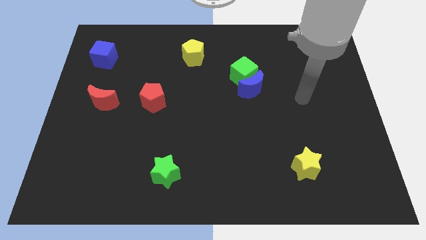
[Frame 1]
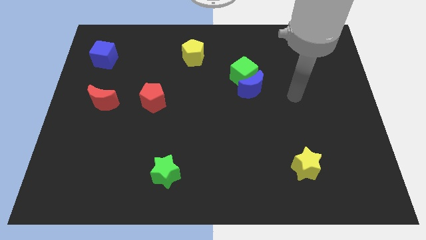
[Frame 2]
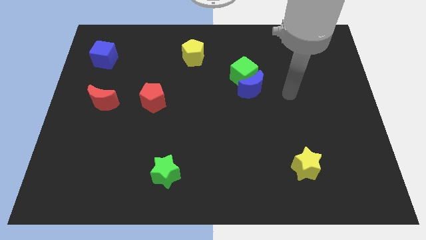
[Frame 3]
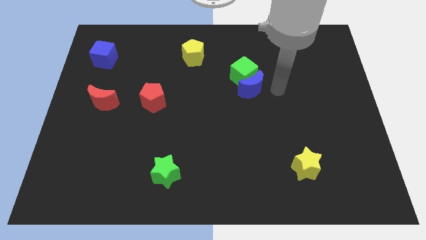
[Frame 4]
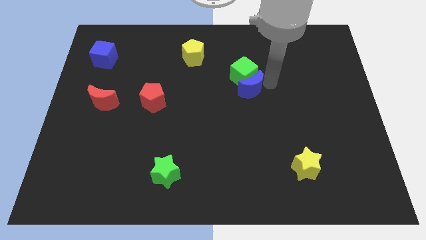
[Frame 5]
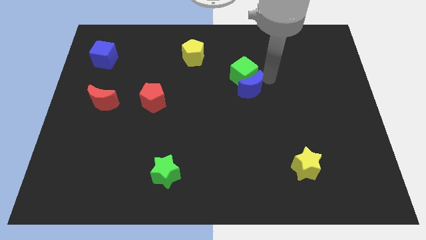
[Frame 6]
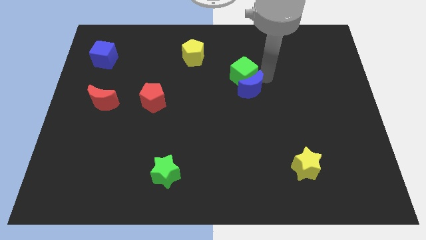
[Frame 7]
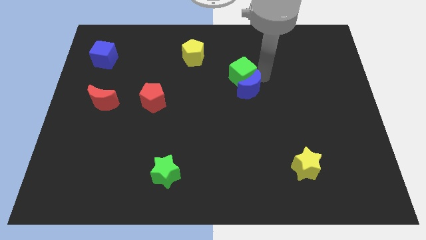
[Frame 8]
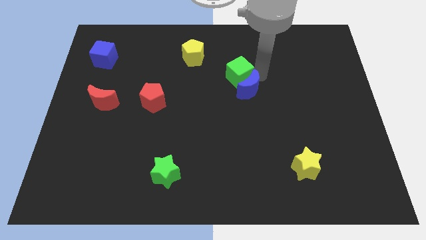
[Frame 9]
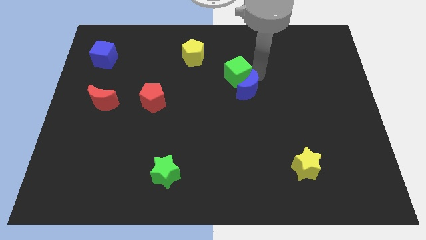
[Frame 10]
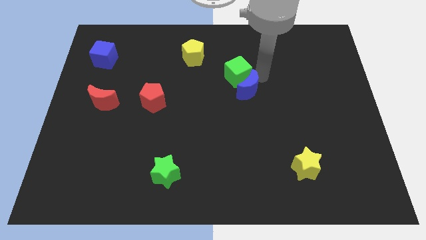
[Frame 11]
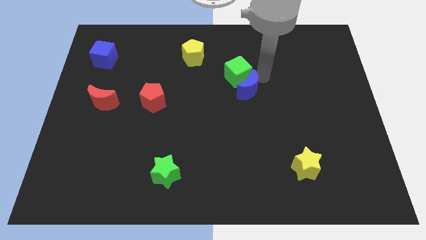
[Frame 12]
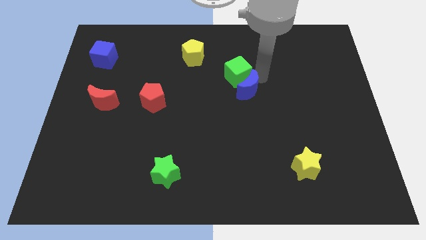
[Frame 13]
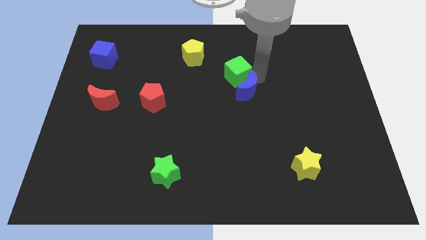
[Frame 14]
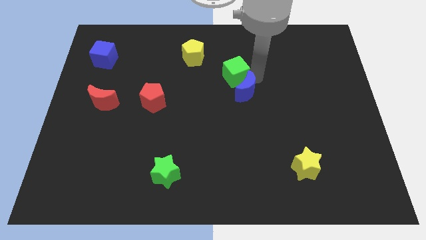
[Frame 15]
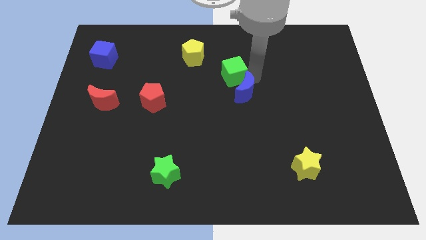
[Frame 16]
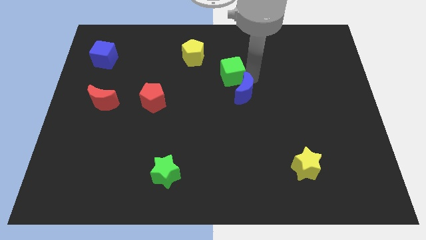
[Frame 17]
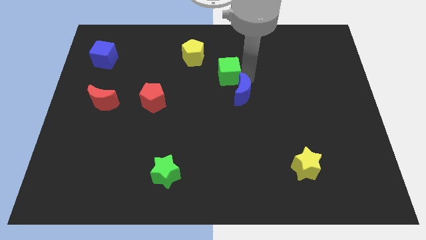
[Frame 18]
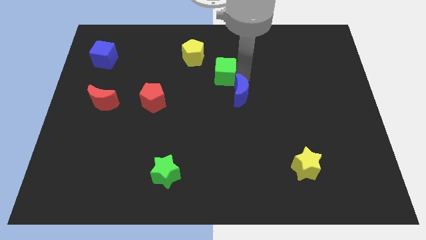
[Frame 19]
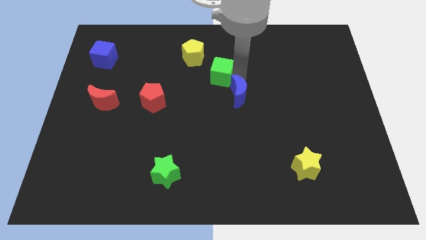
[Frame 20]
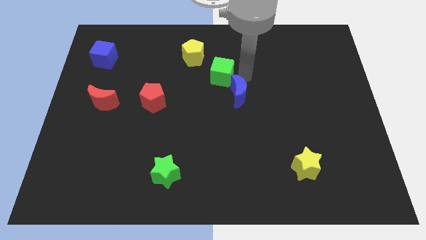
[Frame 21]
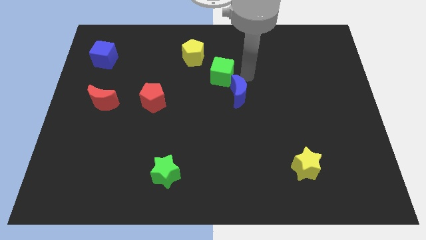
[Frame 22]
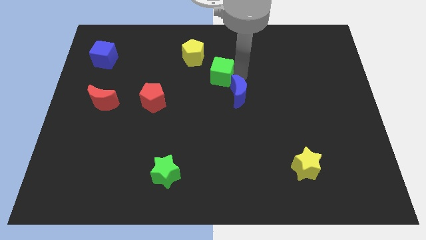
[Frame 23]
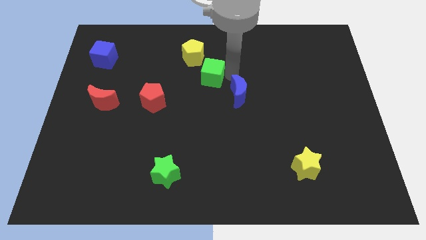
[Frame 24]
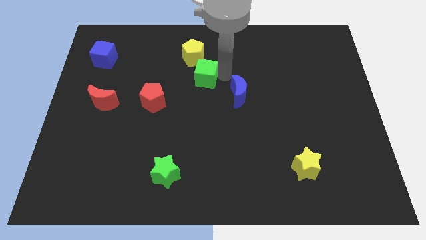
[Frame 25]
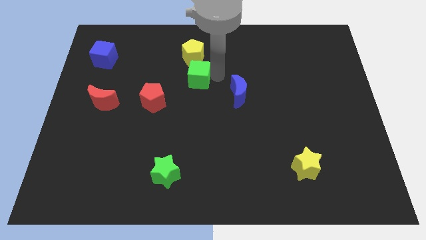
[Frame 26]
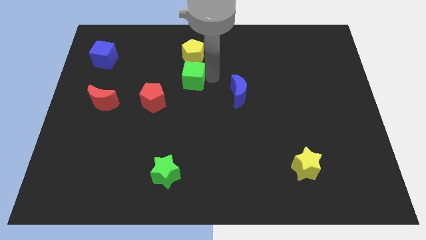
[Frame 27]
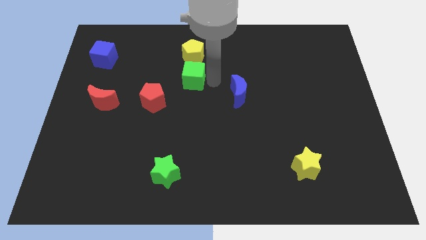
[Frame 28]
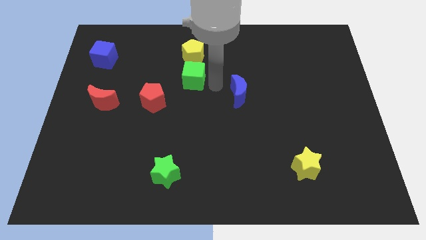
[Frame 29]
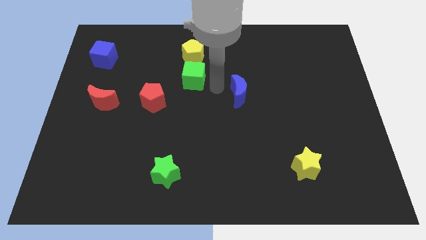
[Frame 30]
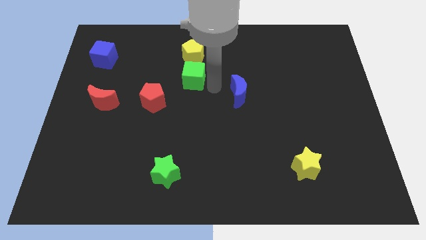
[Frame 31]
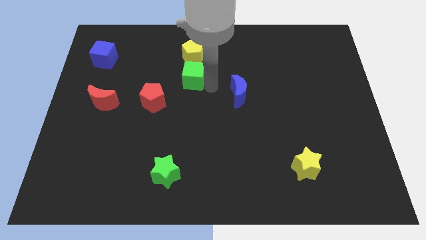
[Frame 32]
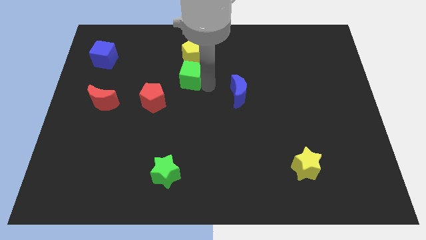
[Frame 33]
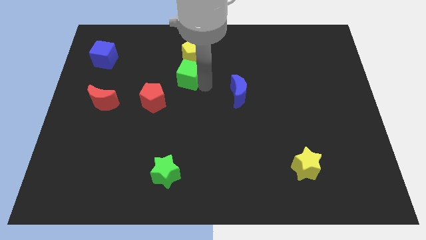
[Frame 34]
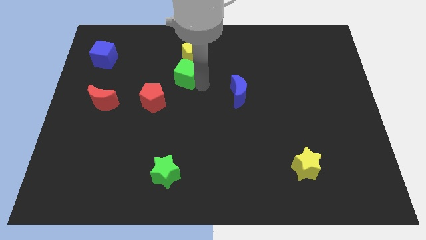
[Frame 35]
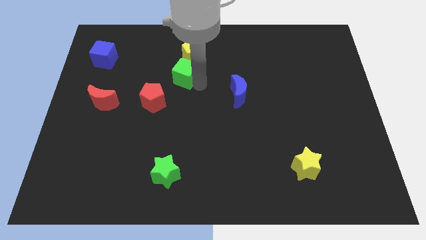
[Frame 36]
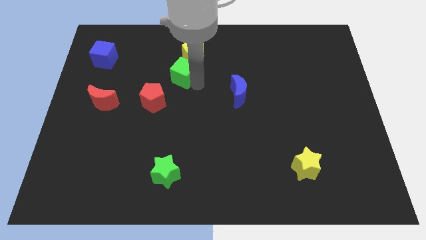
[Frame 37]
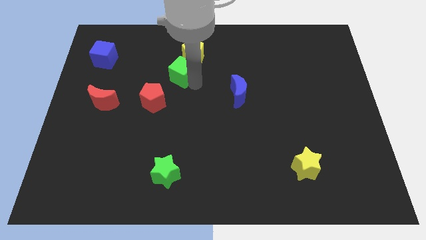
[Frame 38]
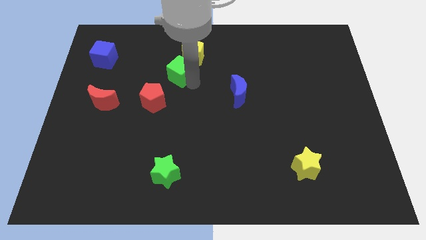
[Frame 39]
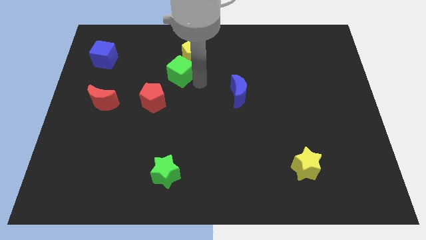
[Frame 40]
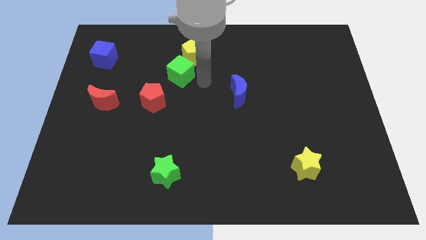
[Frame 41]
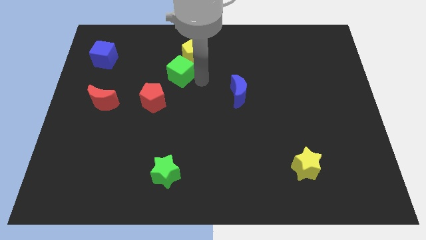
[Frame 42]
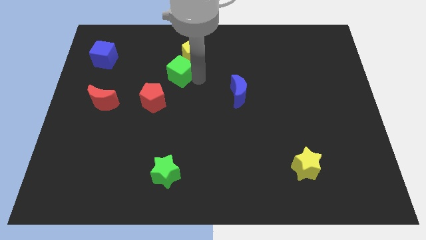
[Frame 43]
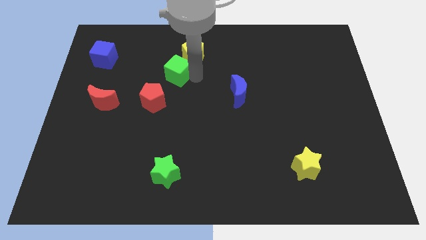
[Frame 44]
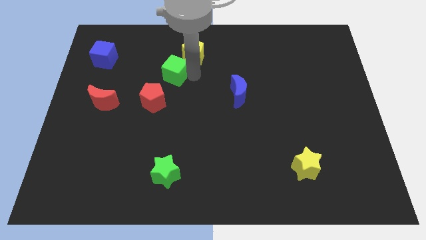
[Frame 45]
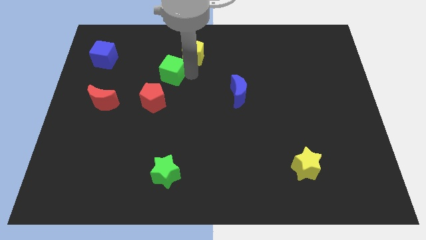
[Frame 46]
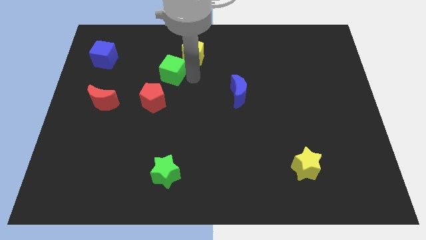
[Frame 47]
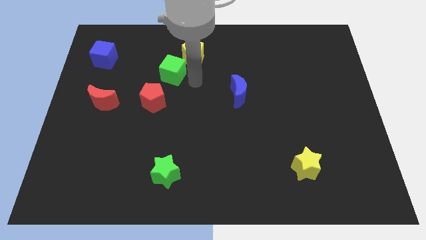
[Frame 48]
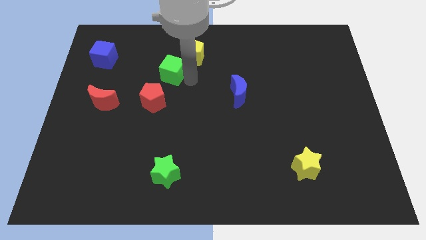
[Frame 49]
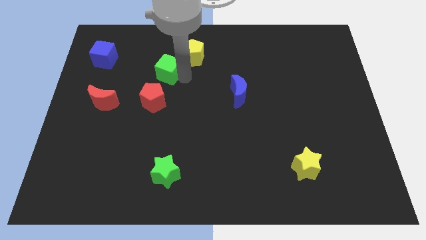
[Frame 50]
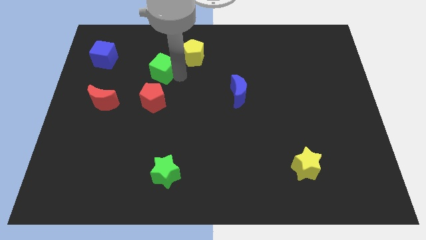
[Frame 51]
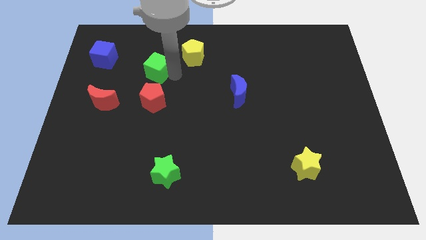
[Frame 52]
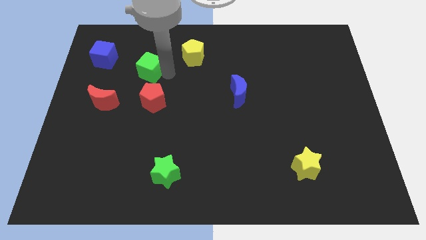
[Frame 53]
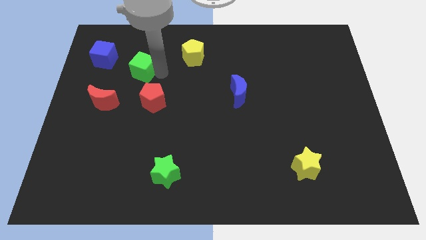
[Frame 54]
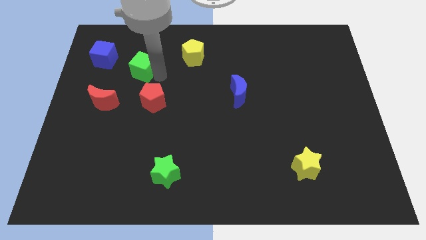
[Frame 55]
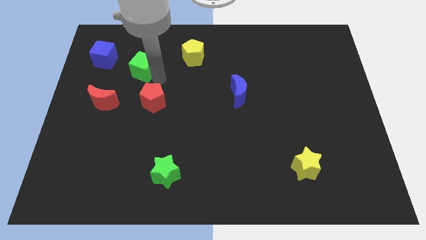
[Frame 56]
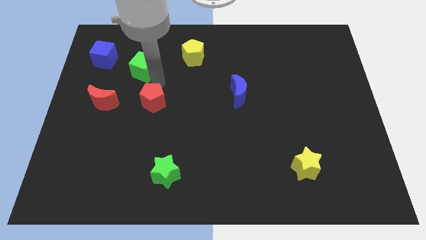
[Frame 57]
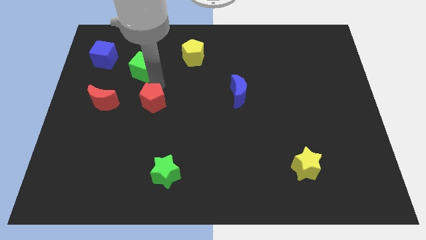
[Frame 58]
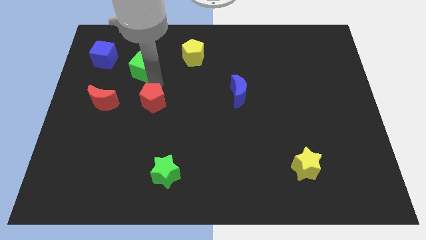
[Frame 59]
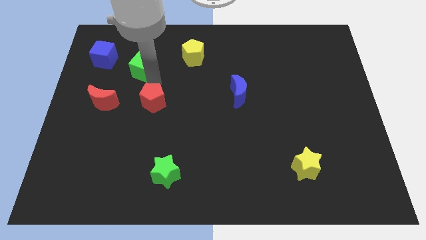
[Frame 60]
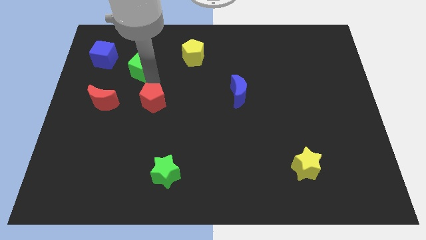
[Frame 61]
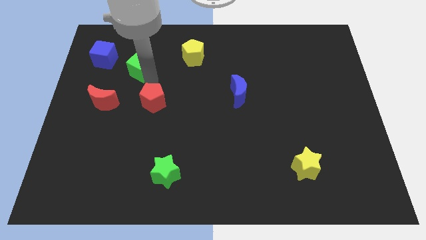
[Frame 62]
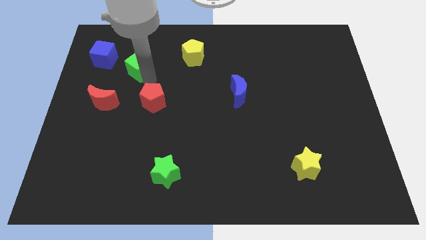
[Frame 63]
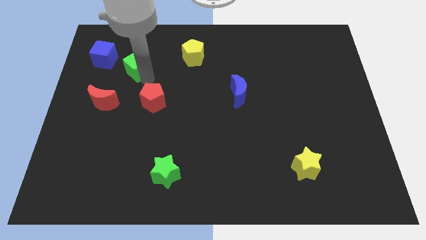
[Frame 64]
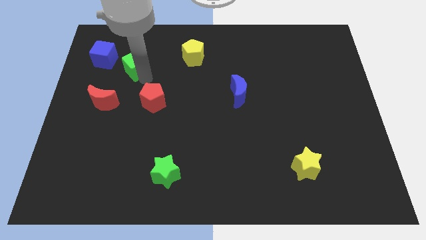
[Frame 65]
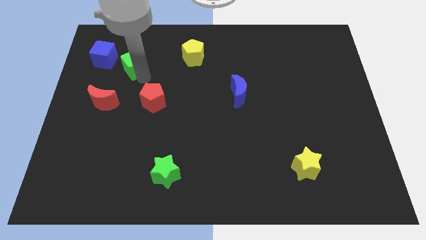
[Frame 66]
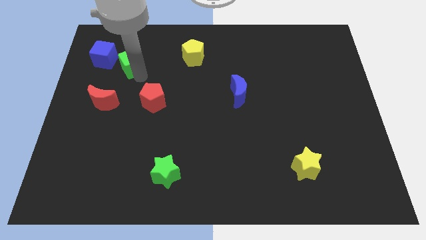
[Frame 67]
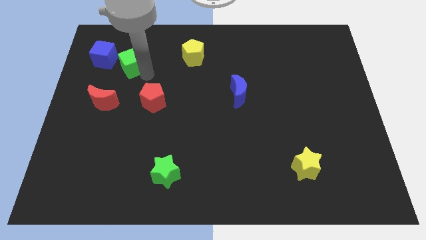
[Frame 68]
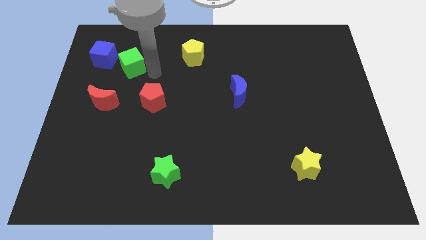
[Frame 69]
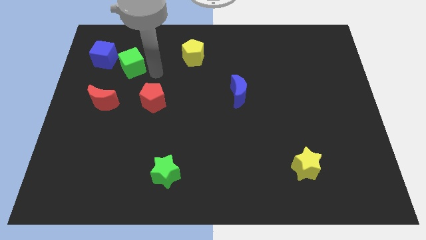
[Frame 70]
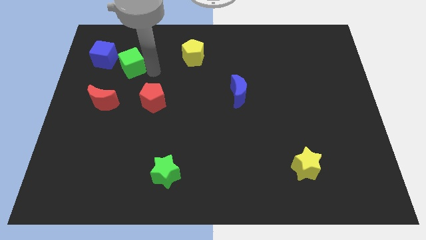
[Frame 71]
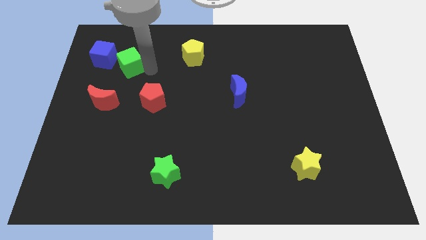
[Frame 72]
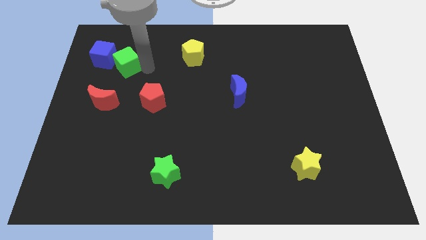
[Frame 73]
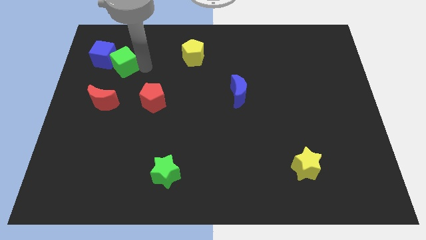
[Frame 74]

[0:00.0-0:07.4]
move the green cube close to the blue cube
